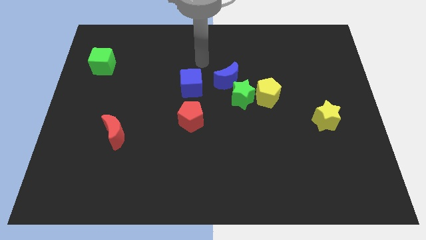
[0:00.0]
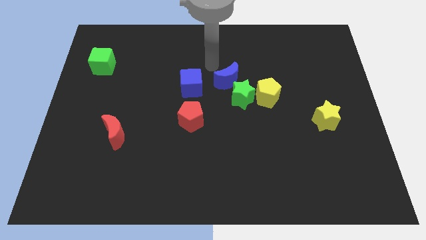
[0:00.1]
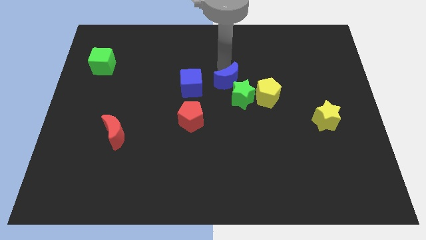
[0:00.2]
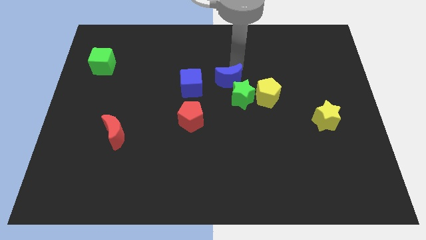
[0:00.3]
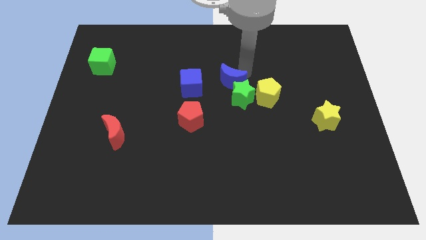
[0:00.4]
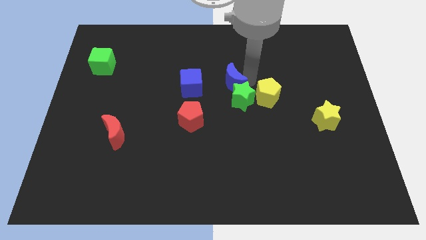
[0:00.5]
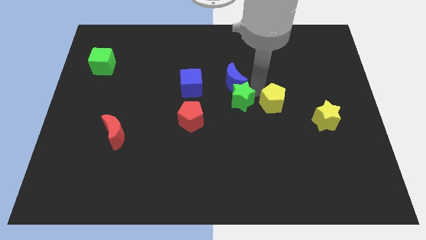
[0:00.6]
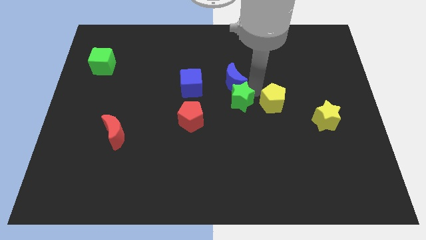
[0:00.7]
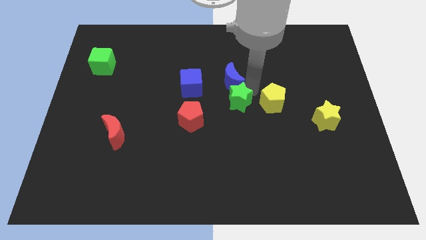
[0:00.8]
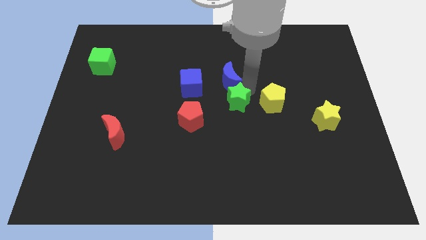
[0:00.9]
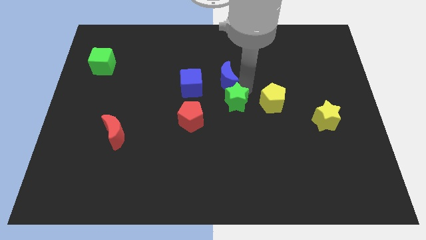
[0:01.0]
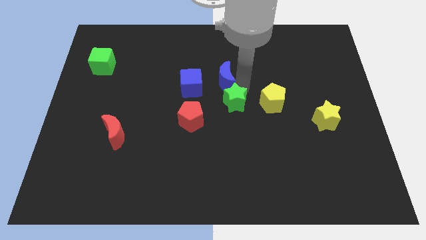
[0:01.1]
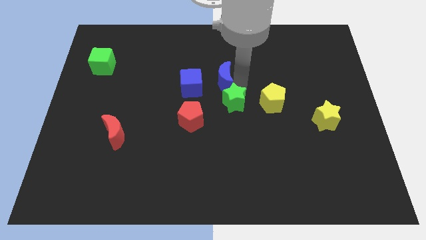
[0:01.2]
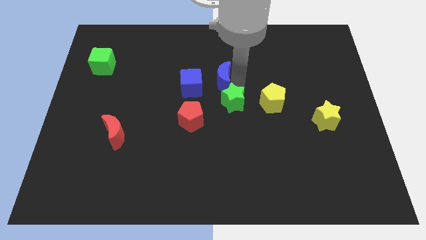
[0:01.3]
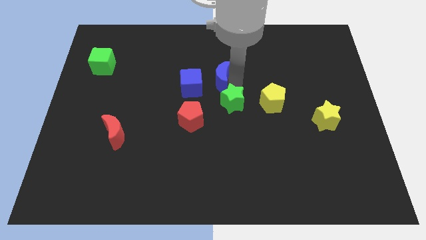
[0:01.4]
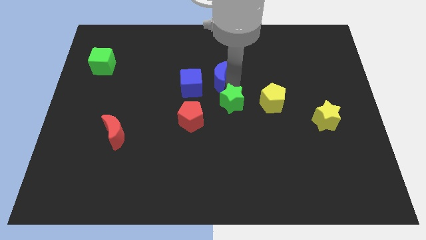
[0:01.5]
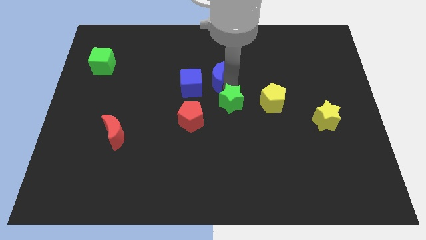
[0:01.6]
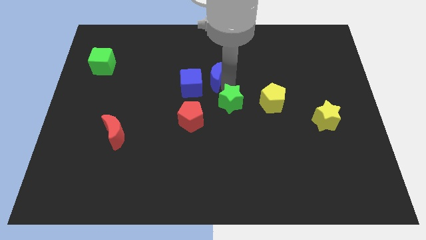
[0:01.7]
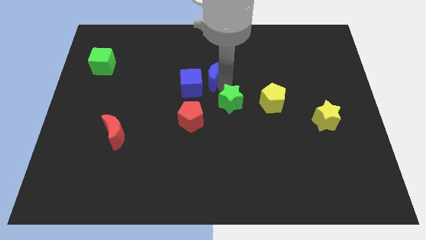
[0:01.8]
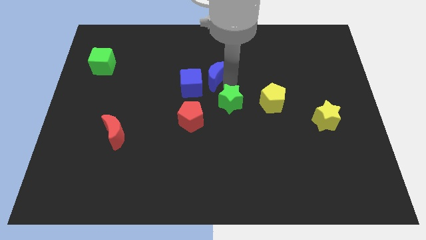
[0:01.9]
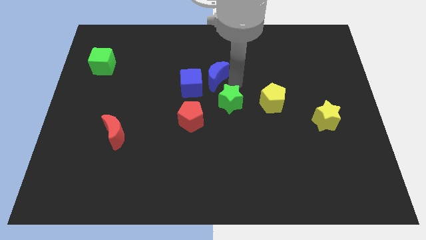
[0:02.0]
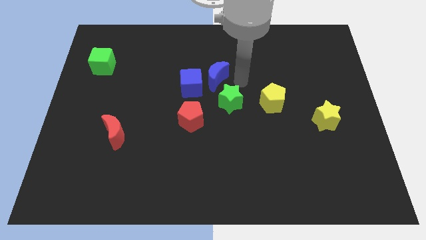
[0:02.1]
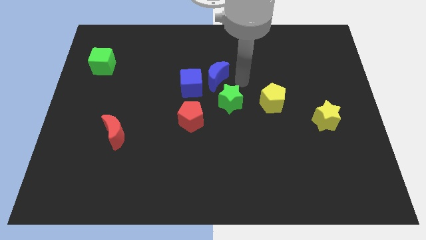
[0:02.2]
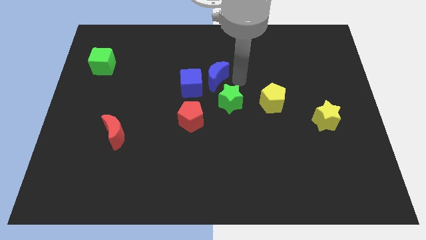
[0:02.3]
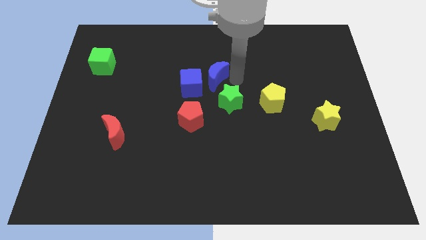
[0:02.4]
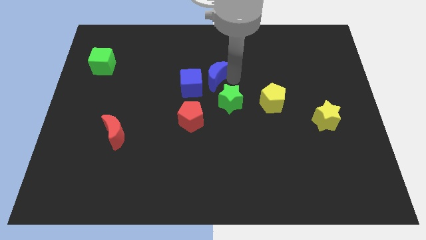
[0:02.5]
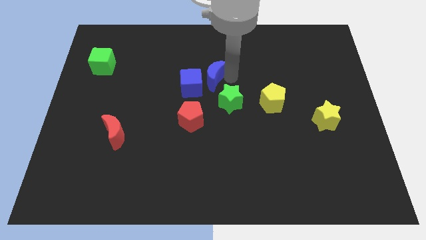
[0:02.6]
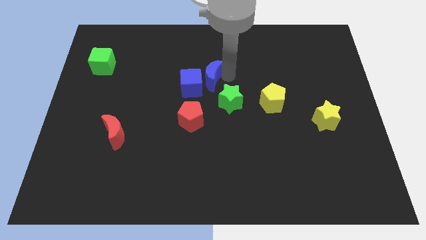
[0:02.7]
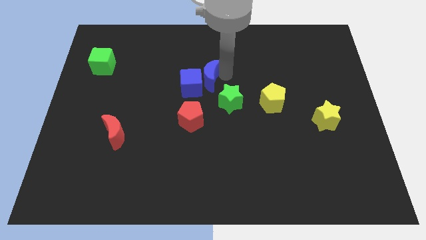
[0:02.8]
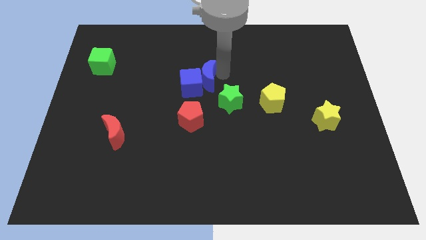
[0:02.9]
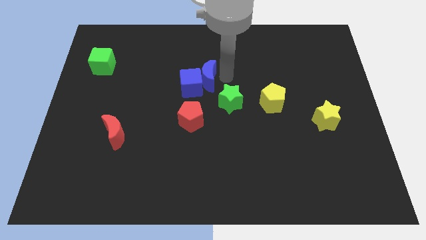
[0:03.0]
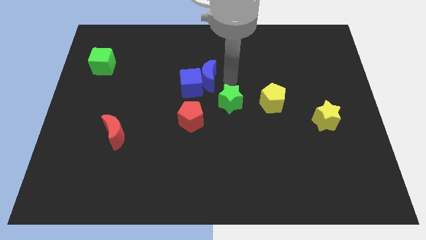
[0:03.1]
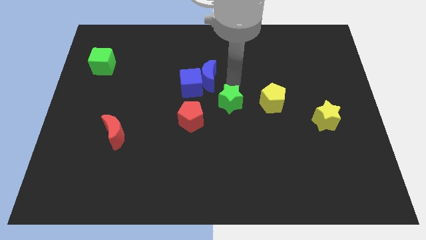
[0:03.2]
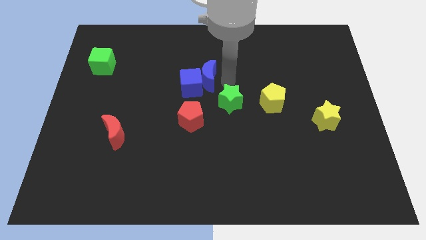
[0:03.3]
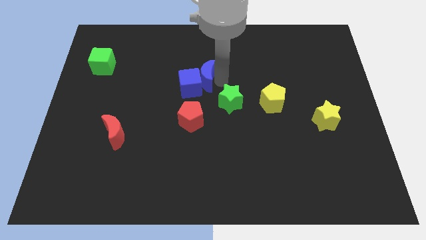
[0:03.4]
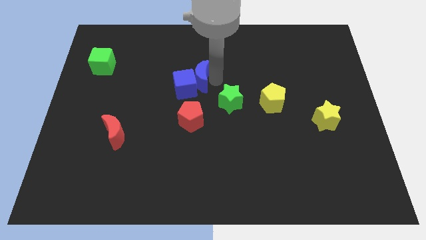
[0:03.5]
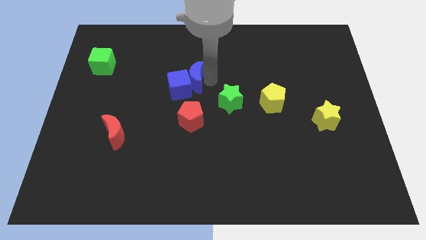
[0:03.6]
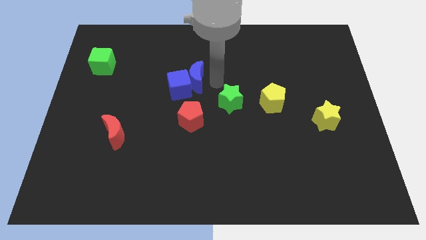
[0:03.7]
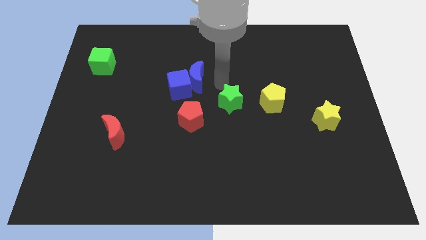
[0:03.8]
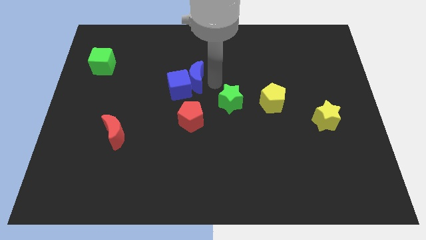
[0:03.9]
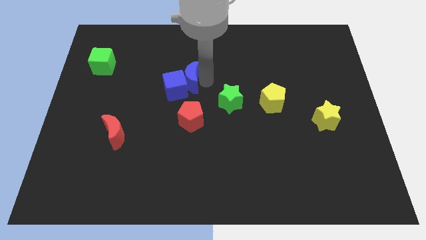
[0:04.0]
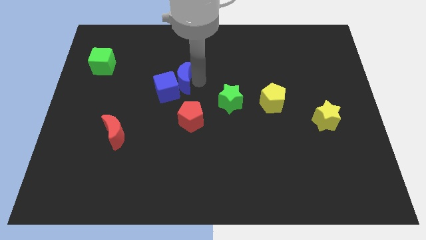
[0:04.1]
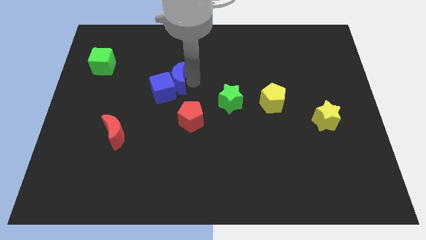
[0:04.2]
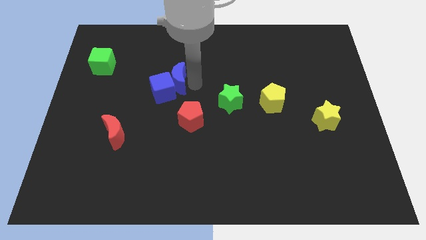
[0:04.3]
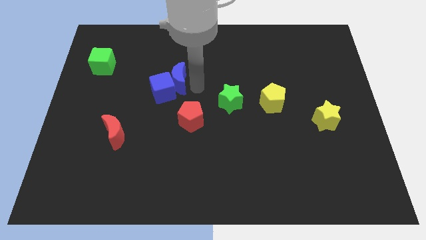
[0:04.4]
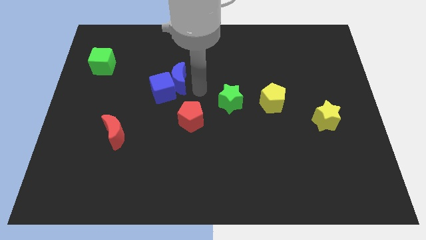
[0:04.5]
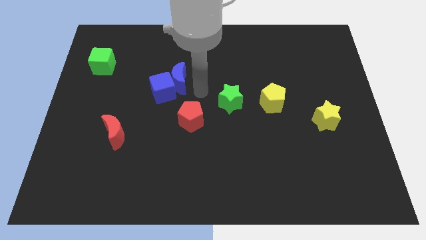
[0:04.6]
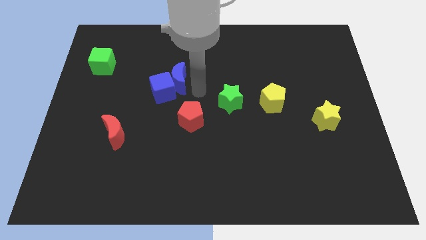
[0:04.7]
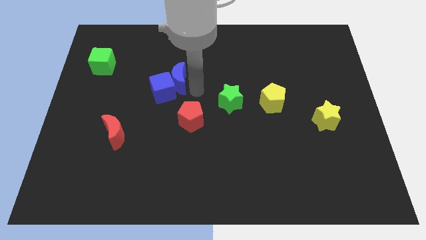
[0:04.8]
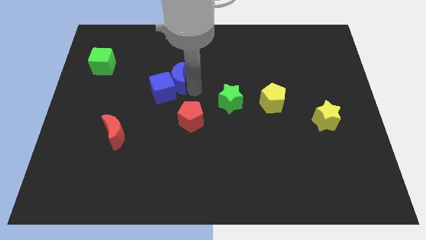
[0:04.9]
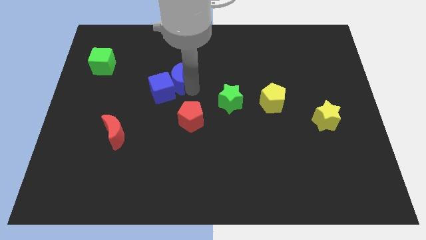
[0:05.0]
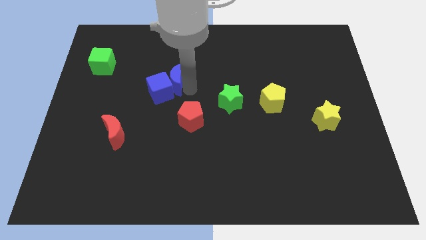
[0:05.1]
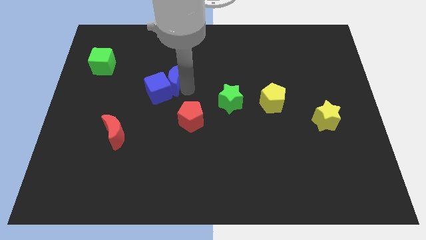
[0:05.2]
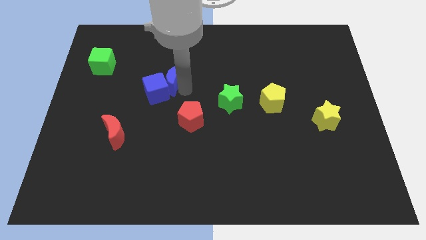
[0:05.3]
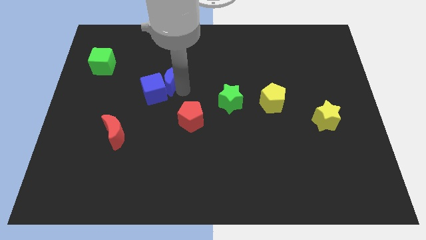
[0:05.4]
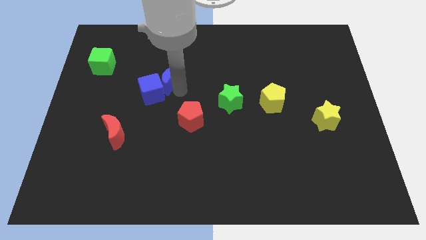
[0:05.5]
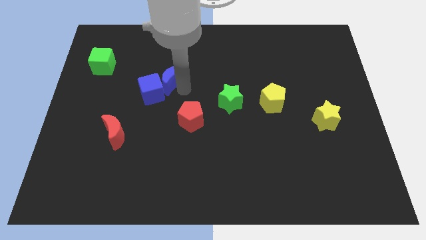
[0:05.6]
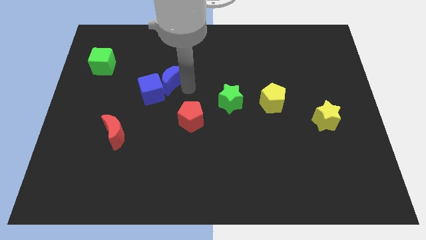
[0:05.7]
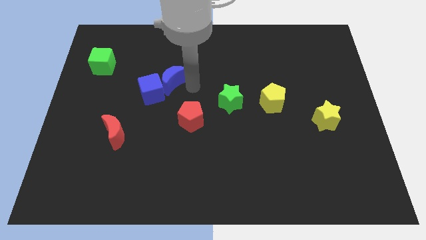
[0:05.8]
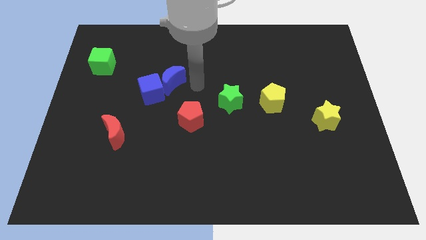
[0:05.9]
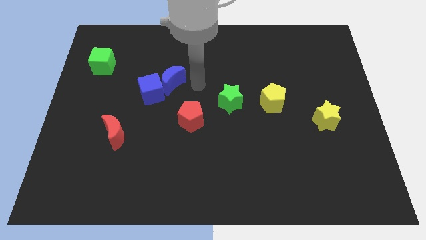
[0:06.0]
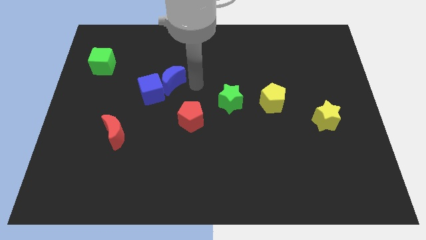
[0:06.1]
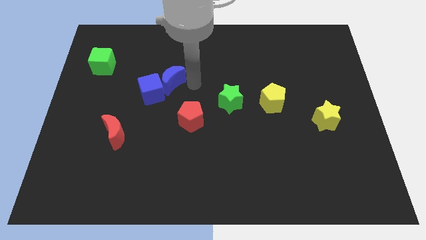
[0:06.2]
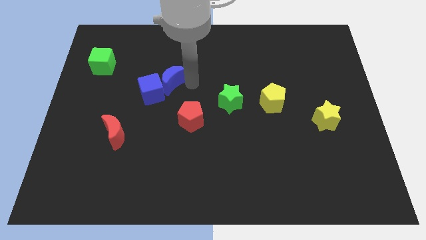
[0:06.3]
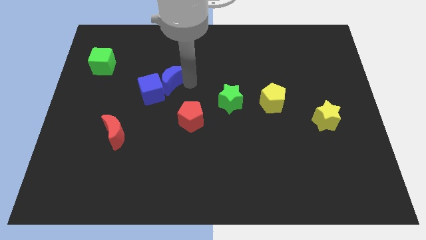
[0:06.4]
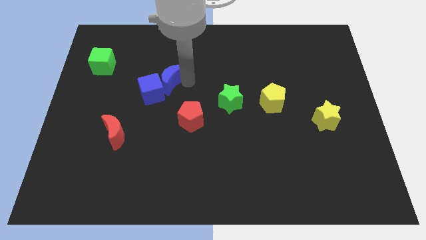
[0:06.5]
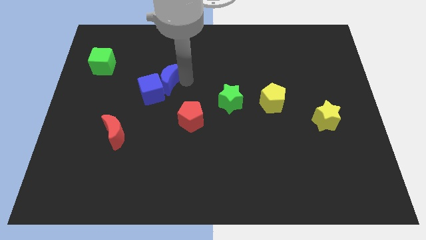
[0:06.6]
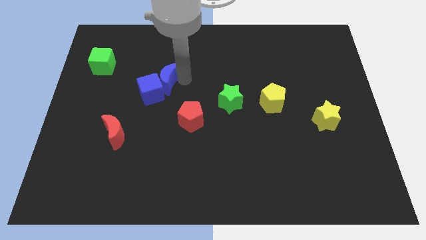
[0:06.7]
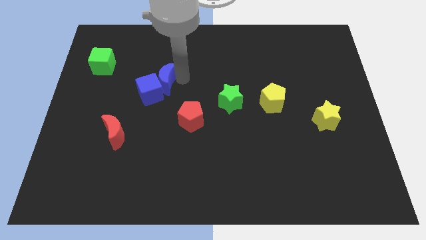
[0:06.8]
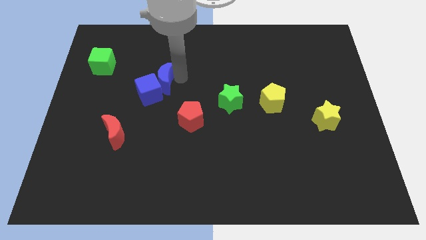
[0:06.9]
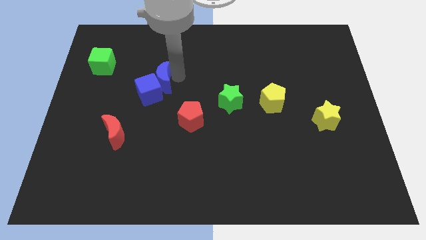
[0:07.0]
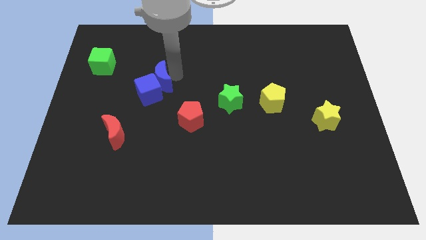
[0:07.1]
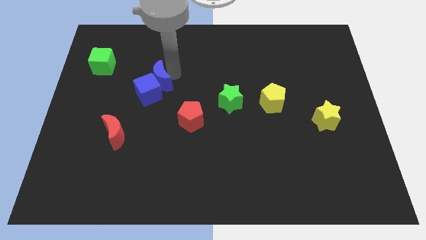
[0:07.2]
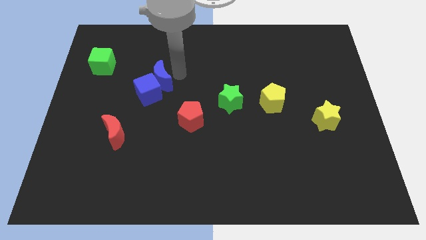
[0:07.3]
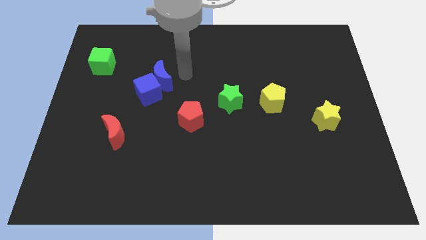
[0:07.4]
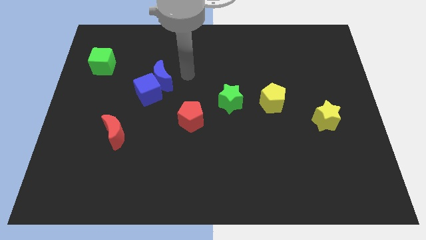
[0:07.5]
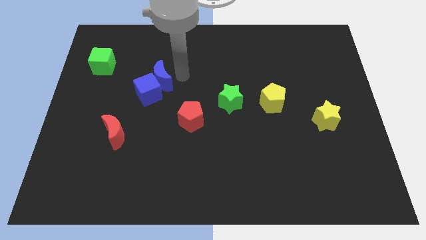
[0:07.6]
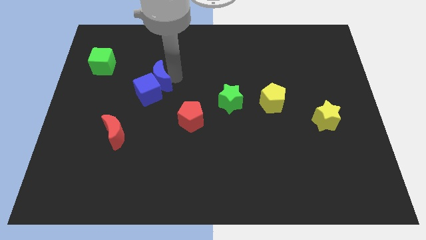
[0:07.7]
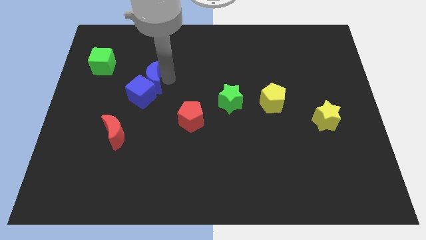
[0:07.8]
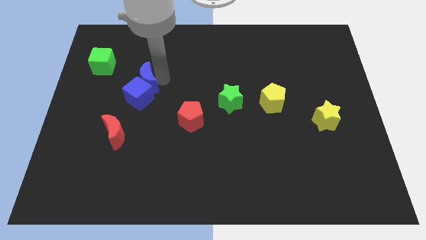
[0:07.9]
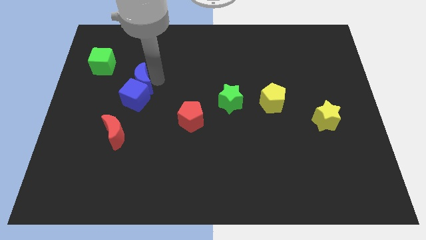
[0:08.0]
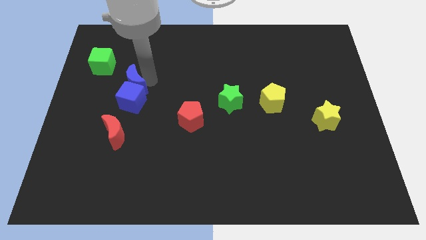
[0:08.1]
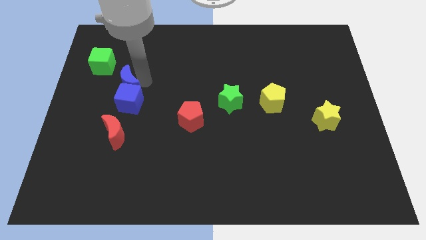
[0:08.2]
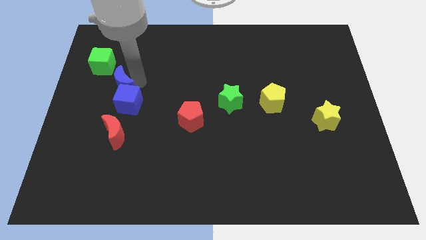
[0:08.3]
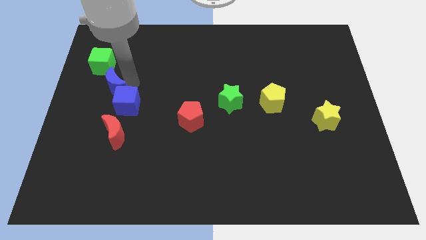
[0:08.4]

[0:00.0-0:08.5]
push the blue moon below the green cube
